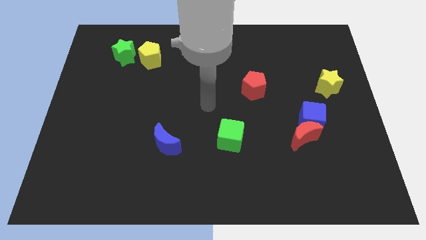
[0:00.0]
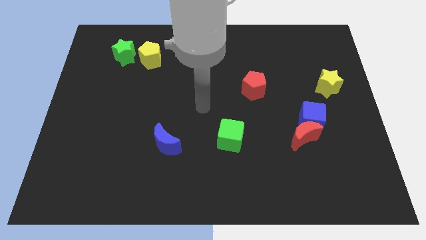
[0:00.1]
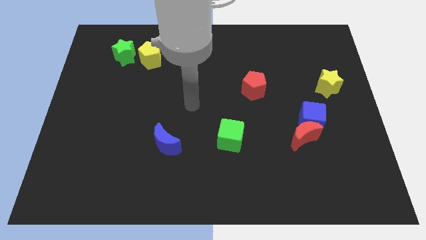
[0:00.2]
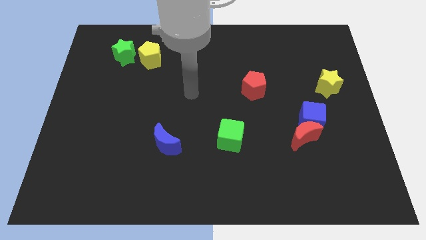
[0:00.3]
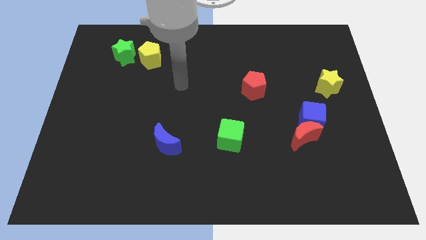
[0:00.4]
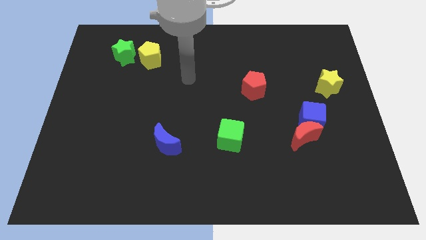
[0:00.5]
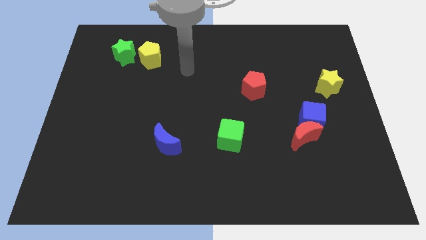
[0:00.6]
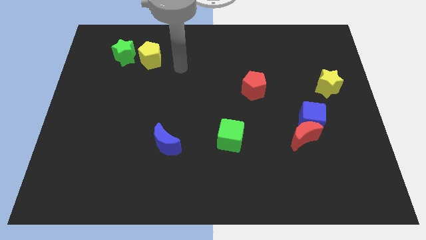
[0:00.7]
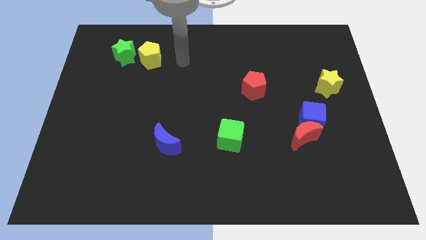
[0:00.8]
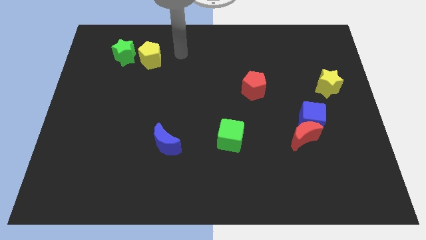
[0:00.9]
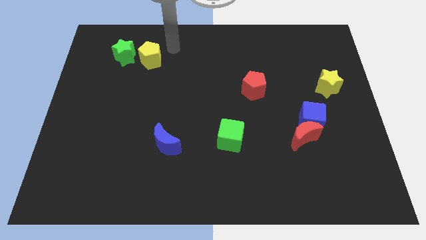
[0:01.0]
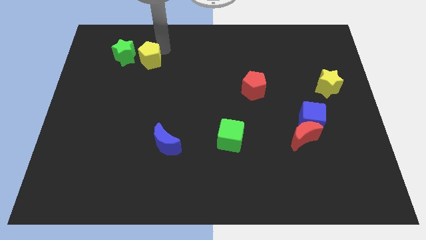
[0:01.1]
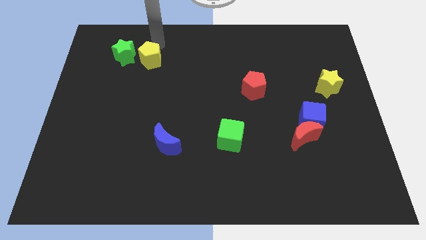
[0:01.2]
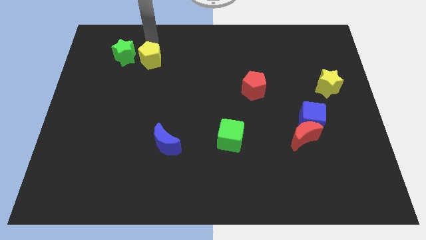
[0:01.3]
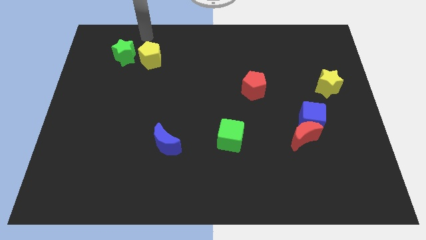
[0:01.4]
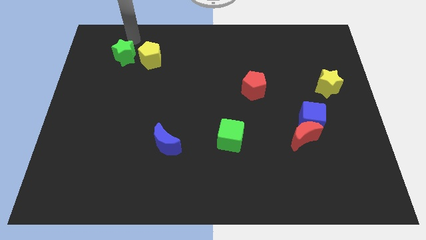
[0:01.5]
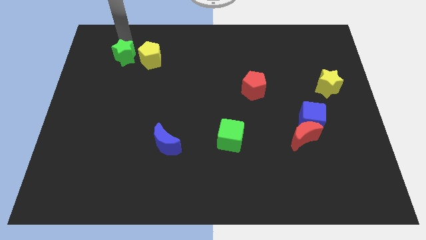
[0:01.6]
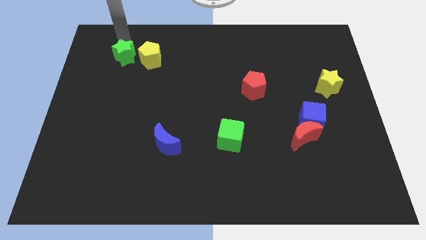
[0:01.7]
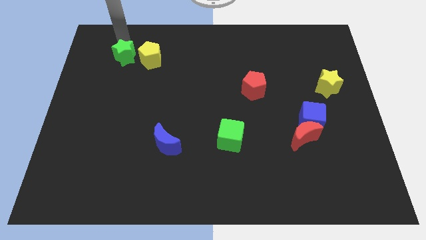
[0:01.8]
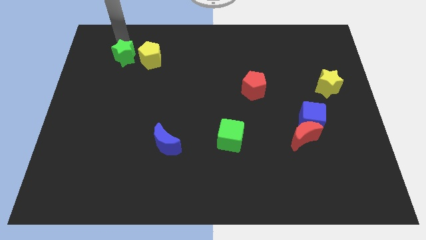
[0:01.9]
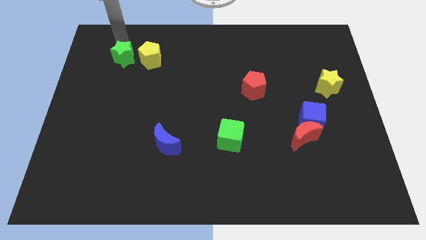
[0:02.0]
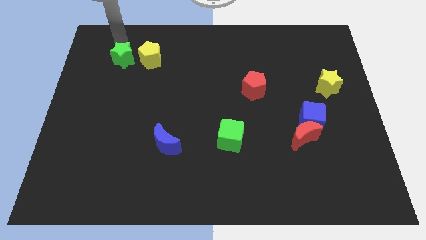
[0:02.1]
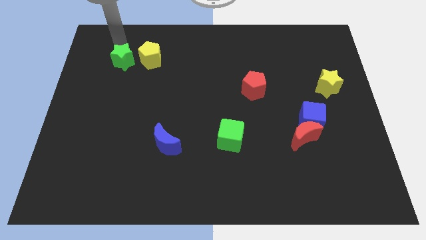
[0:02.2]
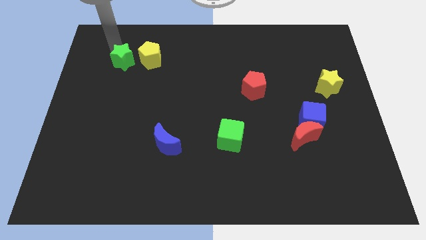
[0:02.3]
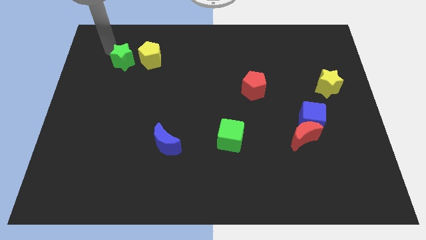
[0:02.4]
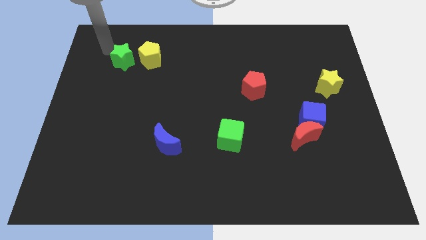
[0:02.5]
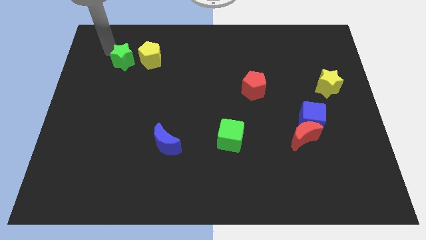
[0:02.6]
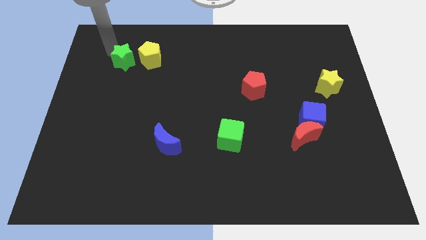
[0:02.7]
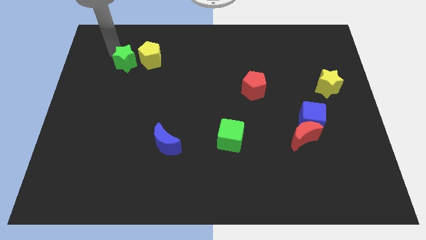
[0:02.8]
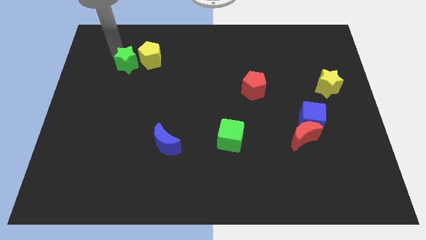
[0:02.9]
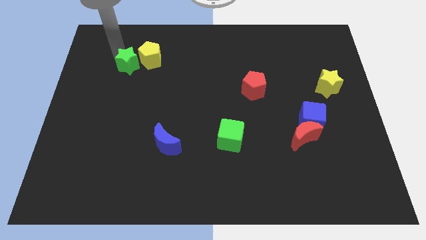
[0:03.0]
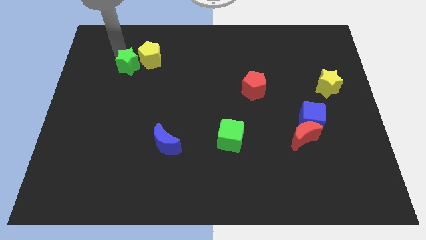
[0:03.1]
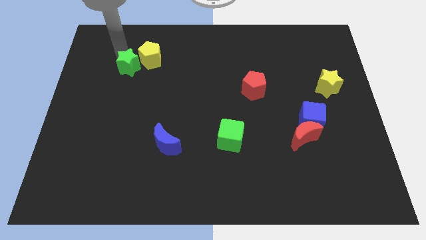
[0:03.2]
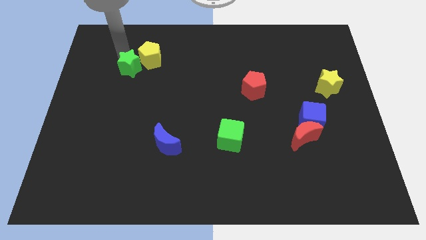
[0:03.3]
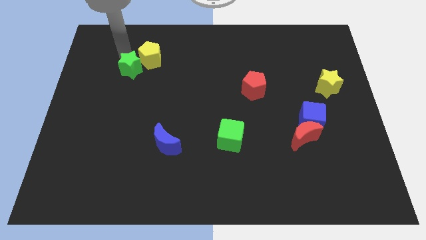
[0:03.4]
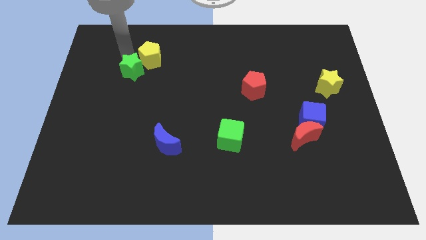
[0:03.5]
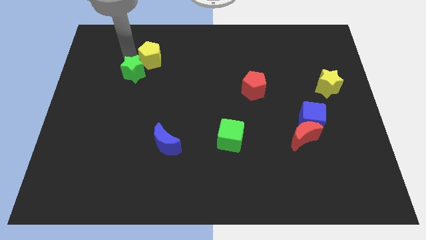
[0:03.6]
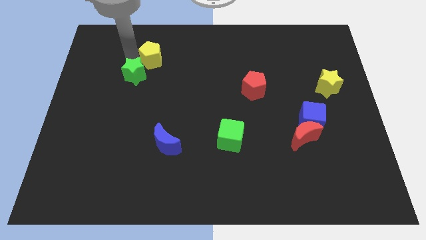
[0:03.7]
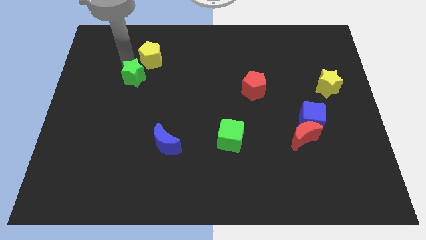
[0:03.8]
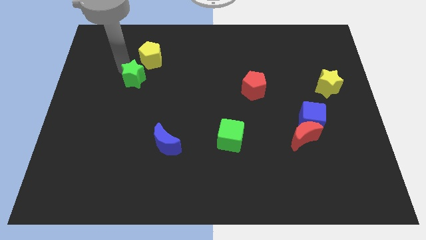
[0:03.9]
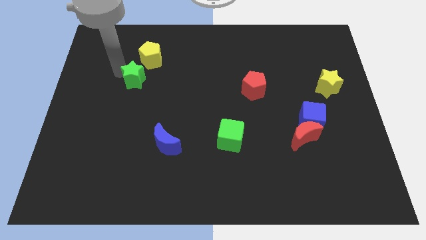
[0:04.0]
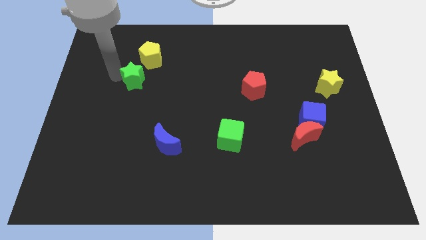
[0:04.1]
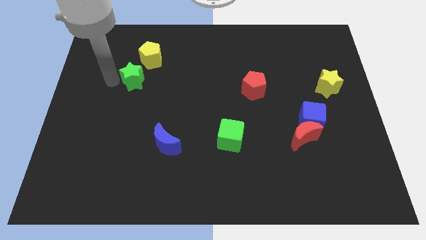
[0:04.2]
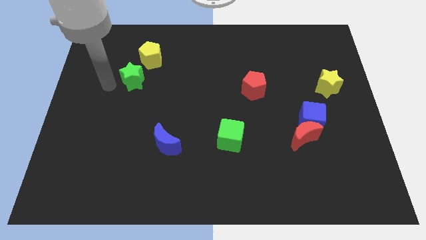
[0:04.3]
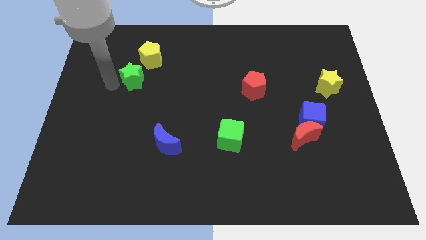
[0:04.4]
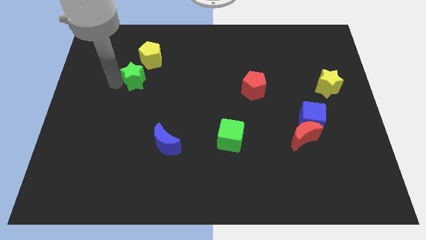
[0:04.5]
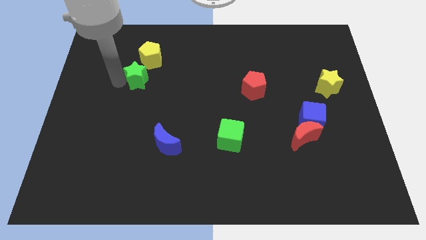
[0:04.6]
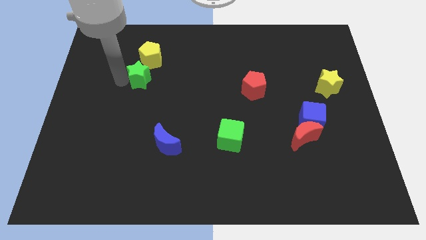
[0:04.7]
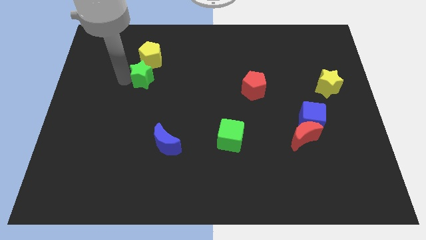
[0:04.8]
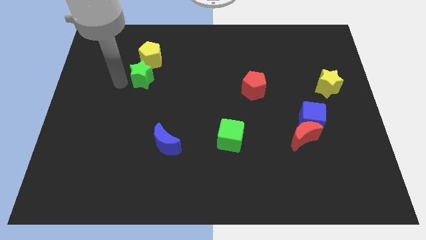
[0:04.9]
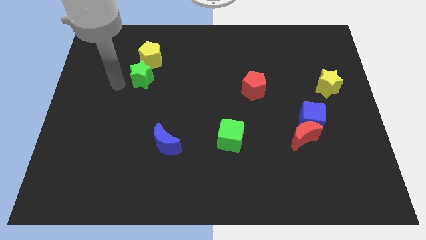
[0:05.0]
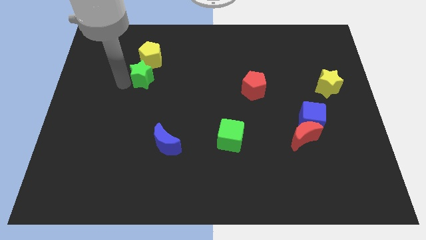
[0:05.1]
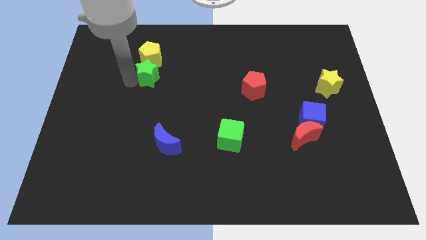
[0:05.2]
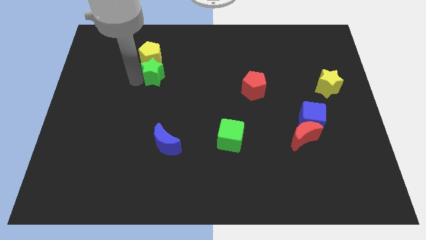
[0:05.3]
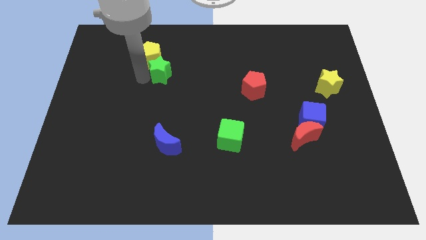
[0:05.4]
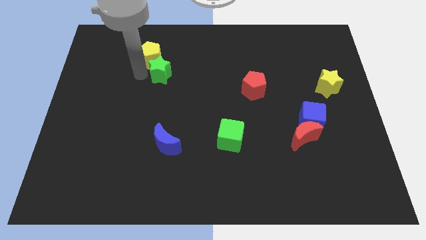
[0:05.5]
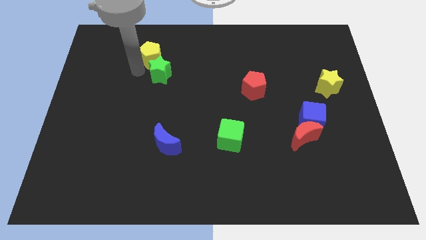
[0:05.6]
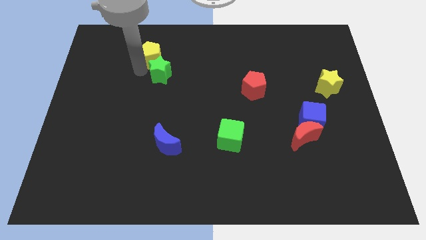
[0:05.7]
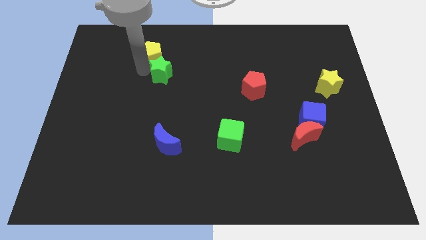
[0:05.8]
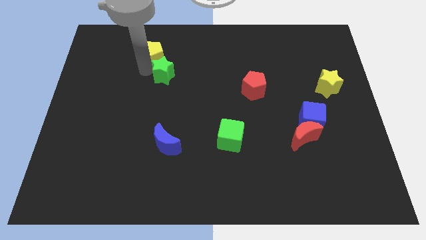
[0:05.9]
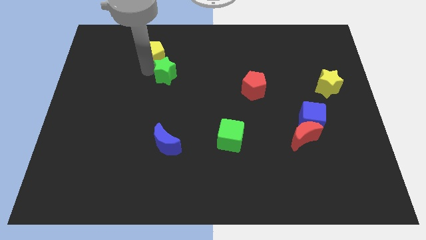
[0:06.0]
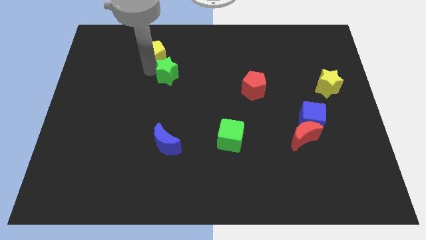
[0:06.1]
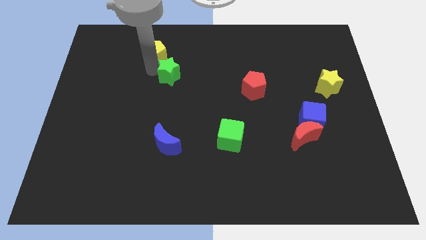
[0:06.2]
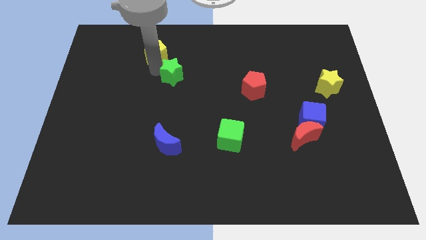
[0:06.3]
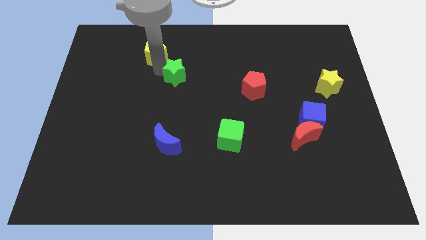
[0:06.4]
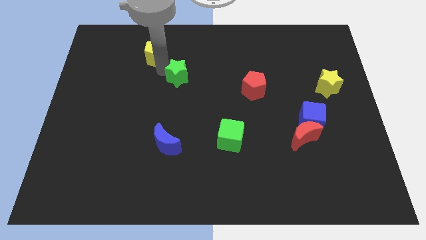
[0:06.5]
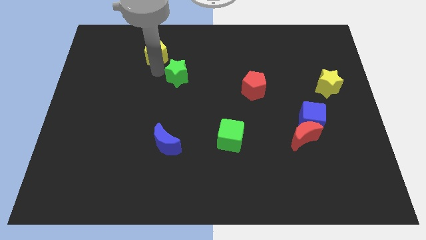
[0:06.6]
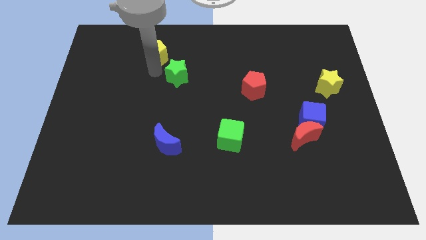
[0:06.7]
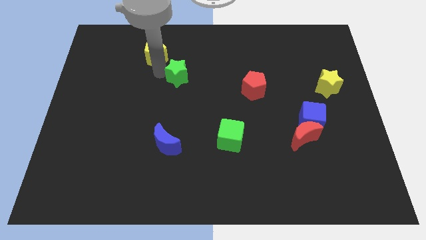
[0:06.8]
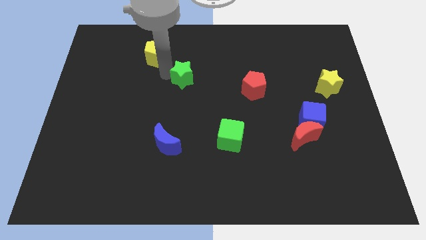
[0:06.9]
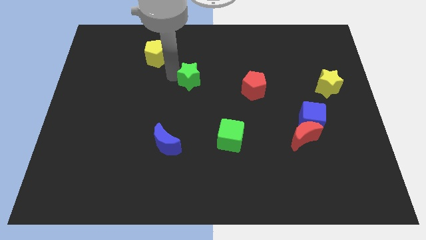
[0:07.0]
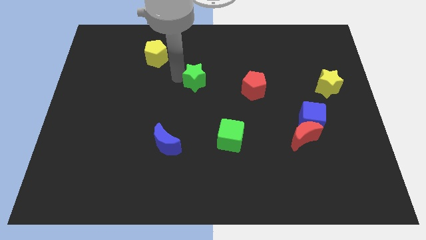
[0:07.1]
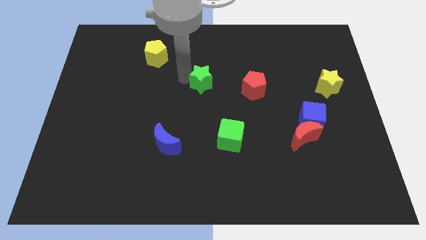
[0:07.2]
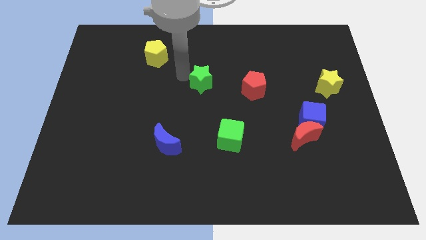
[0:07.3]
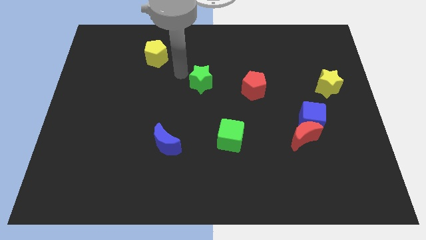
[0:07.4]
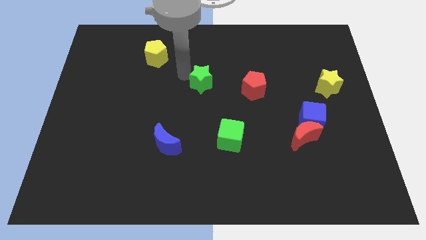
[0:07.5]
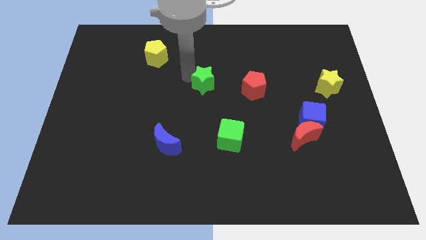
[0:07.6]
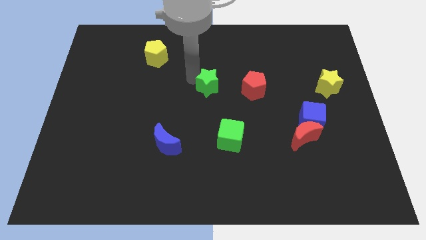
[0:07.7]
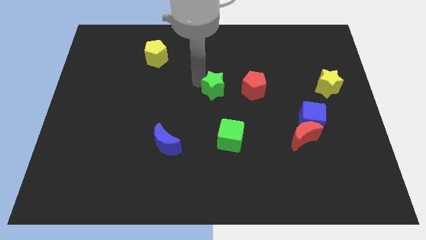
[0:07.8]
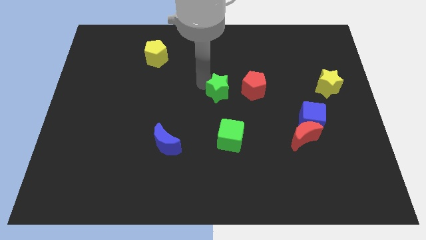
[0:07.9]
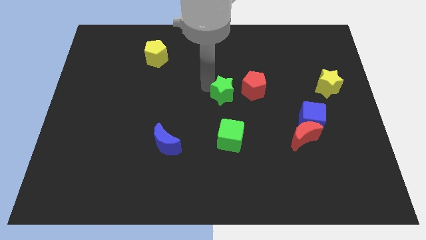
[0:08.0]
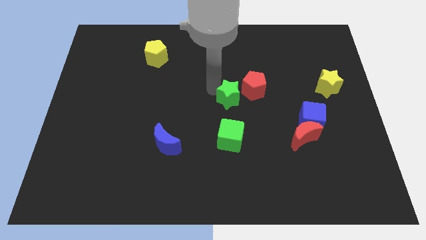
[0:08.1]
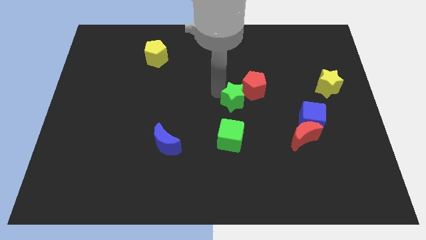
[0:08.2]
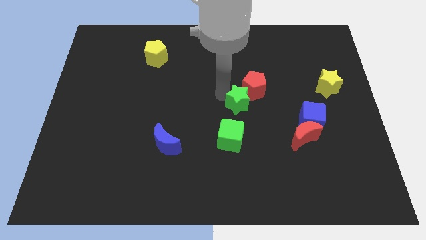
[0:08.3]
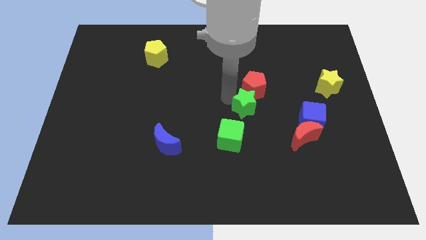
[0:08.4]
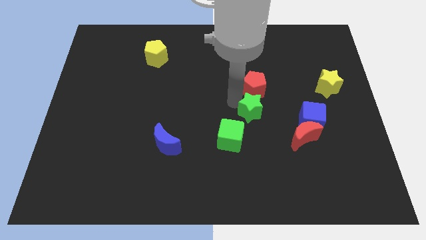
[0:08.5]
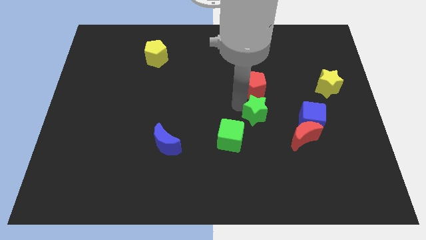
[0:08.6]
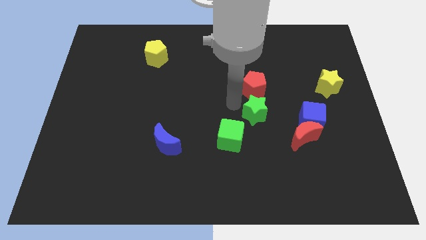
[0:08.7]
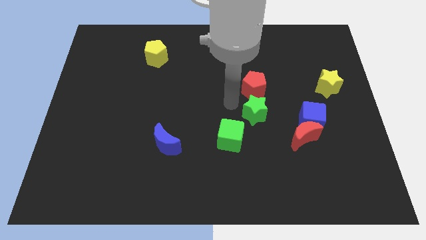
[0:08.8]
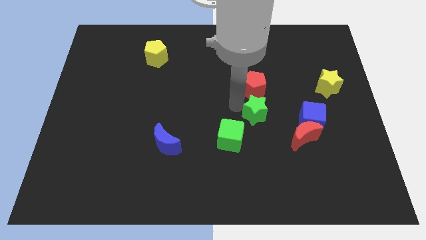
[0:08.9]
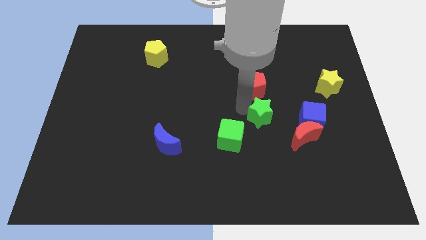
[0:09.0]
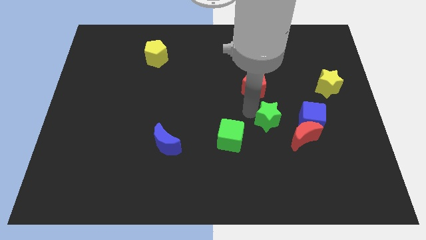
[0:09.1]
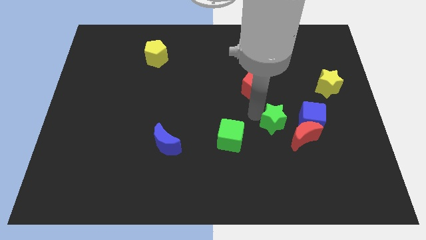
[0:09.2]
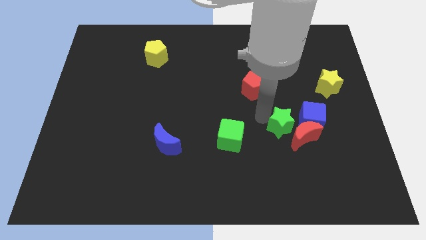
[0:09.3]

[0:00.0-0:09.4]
push the green star next to the red moon
